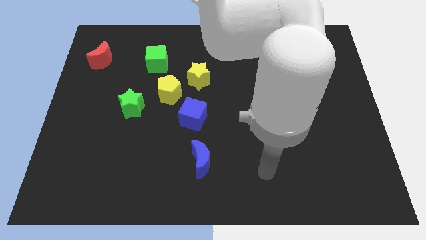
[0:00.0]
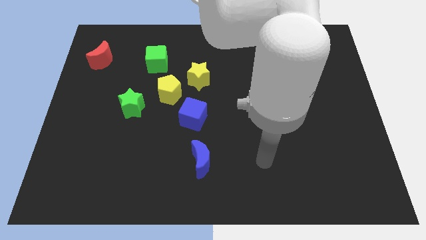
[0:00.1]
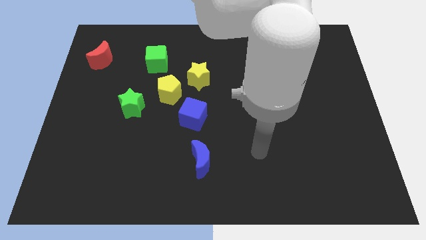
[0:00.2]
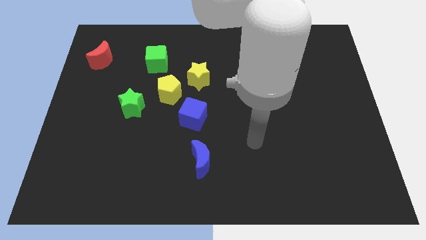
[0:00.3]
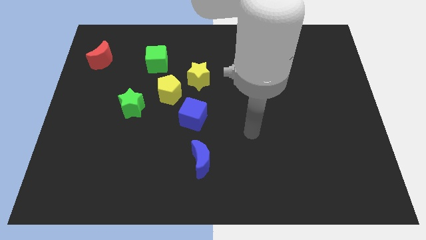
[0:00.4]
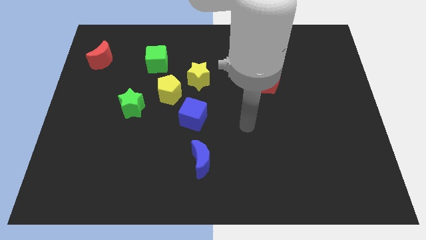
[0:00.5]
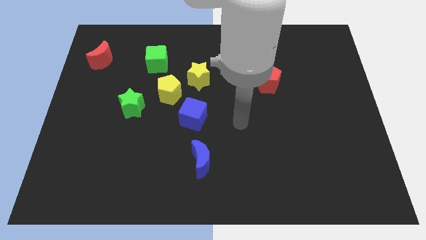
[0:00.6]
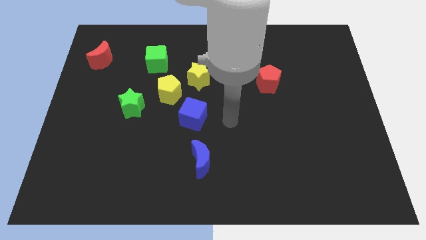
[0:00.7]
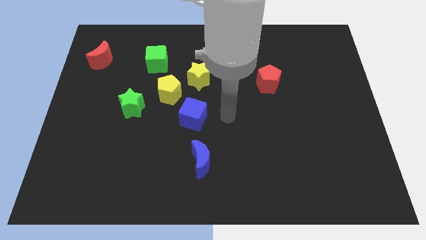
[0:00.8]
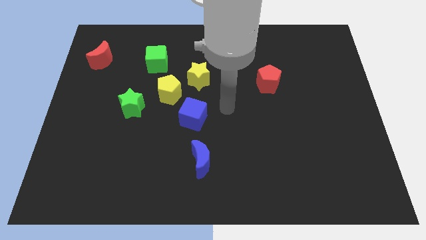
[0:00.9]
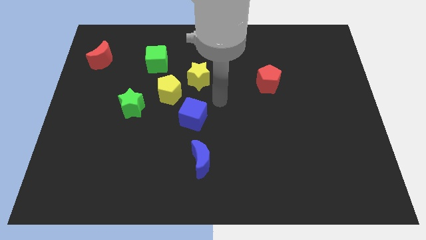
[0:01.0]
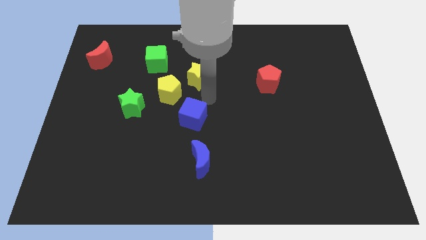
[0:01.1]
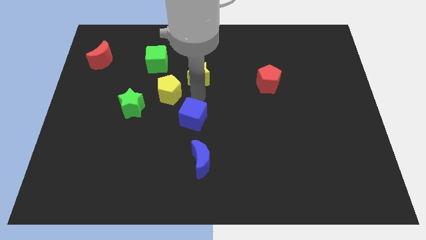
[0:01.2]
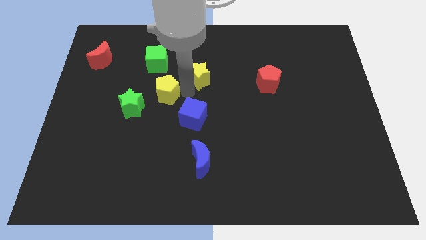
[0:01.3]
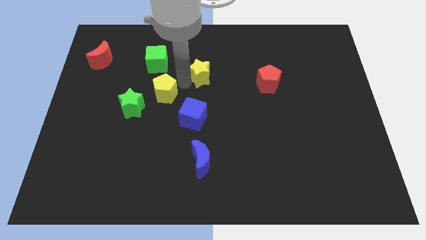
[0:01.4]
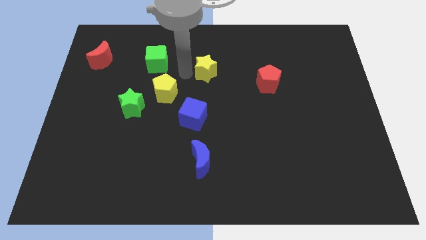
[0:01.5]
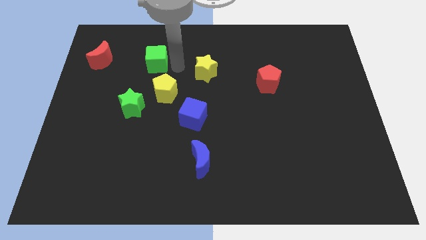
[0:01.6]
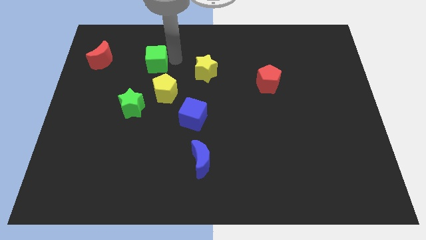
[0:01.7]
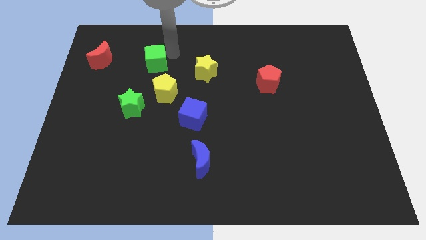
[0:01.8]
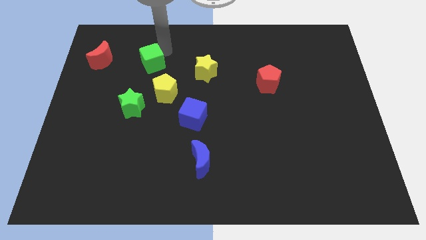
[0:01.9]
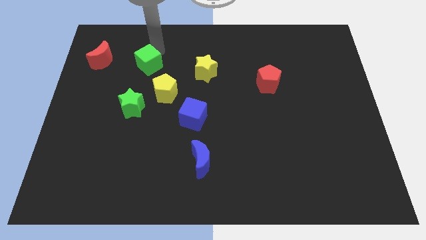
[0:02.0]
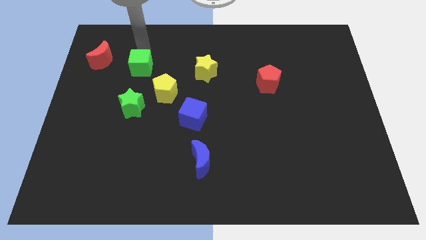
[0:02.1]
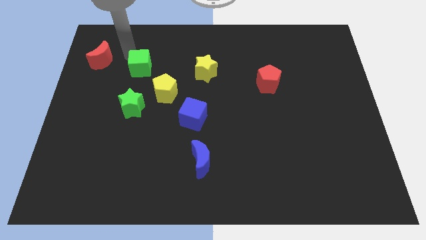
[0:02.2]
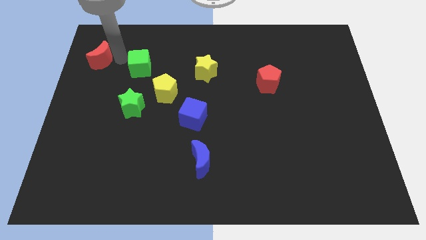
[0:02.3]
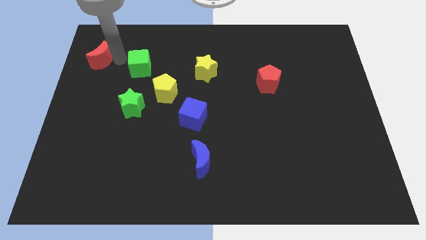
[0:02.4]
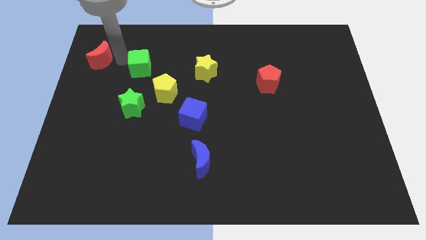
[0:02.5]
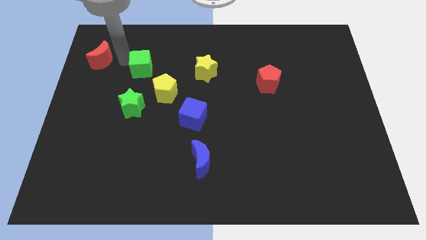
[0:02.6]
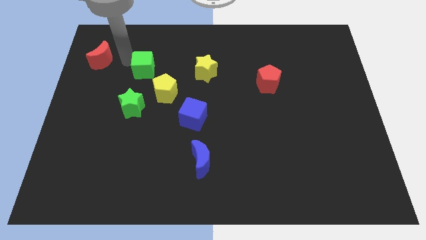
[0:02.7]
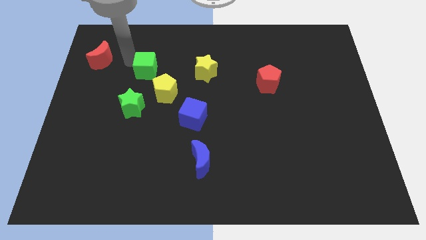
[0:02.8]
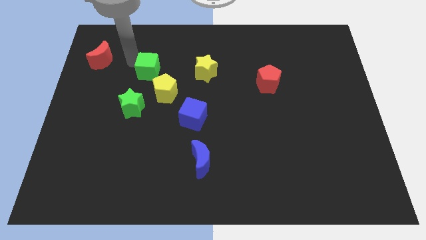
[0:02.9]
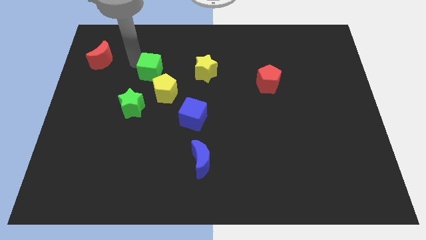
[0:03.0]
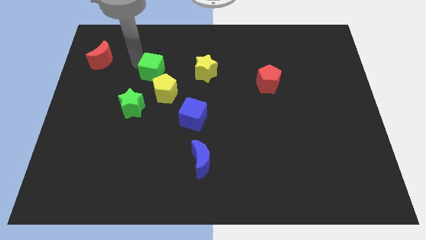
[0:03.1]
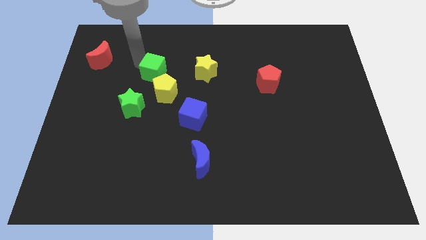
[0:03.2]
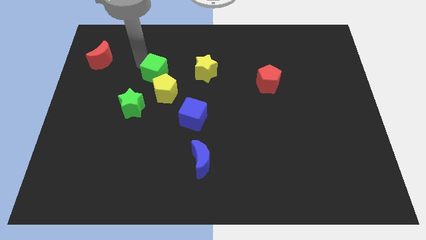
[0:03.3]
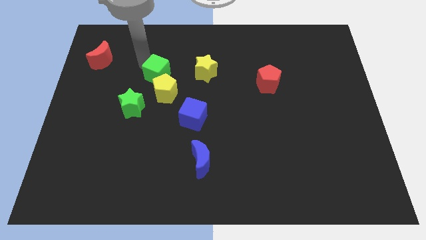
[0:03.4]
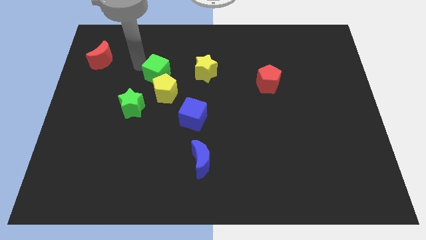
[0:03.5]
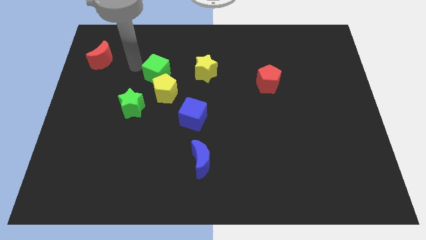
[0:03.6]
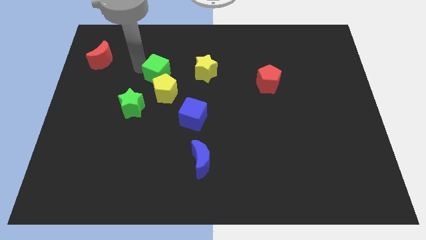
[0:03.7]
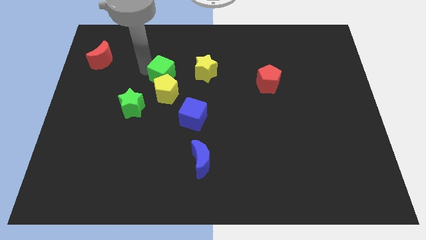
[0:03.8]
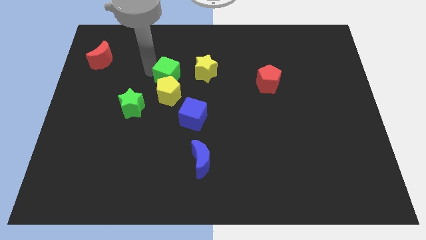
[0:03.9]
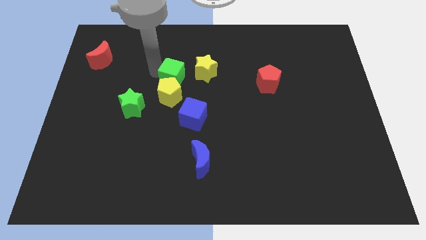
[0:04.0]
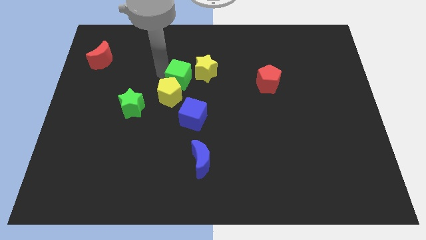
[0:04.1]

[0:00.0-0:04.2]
push the green cube down and then to the right a little bit

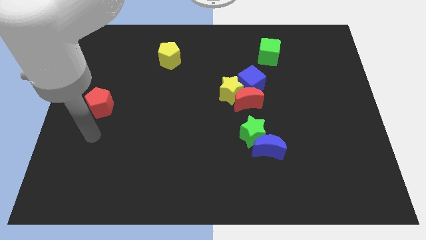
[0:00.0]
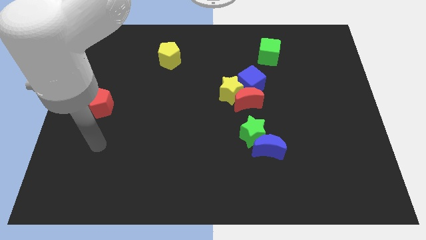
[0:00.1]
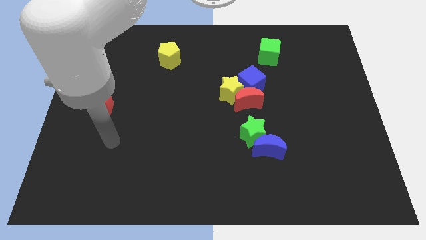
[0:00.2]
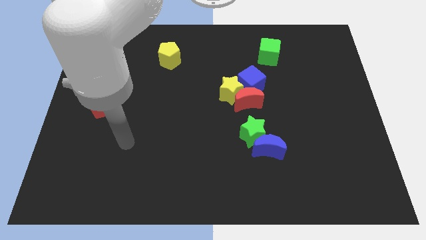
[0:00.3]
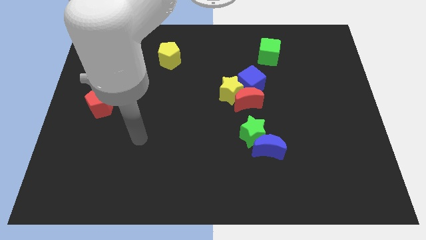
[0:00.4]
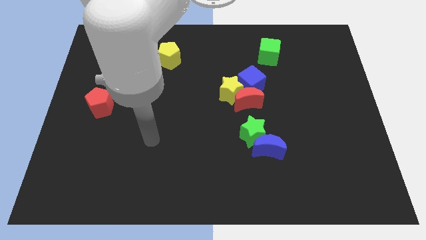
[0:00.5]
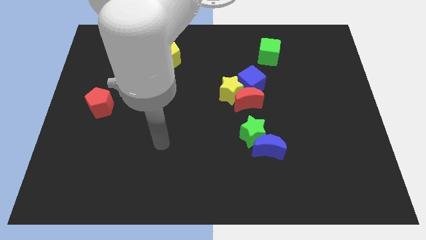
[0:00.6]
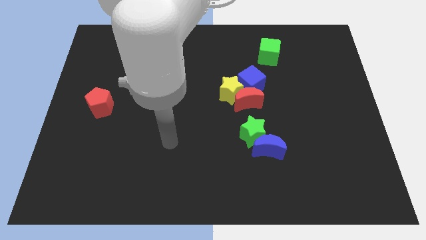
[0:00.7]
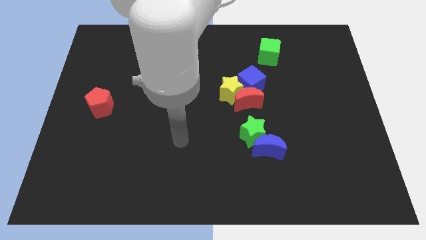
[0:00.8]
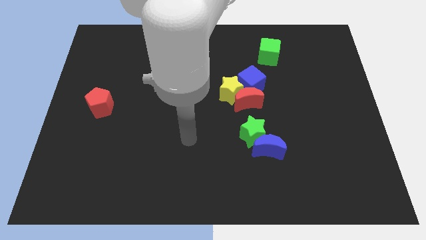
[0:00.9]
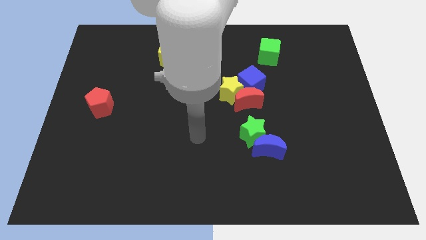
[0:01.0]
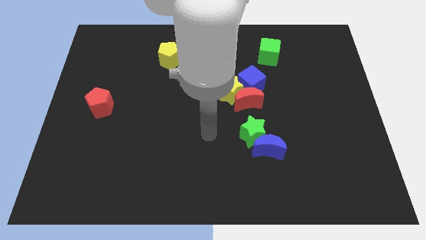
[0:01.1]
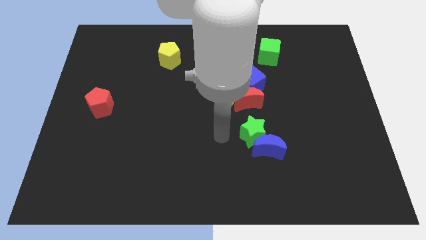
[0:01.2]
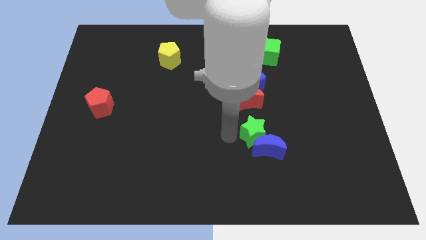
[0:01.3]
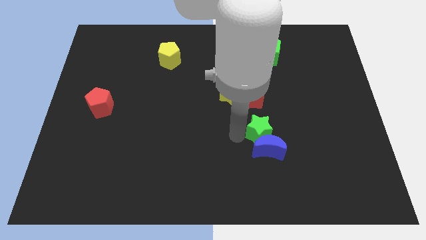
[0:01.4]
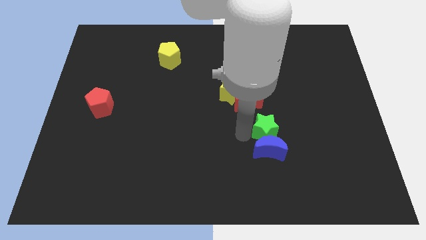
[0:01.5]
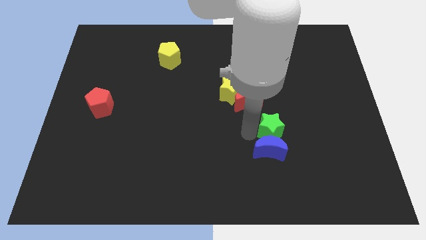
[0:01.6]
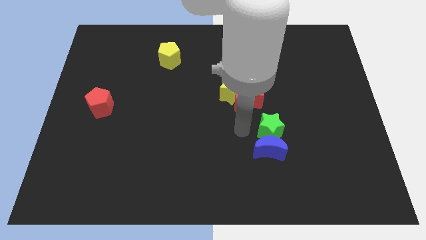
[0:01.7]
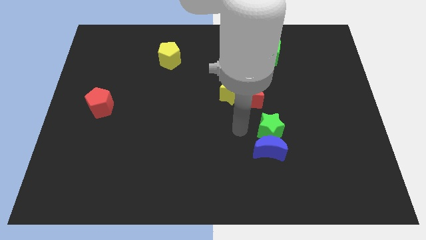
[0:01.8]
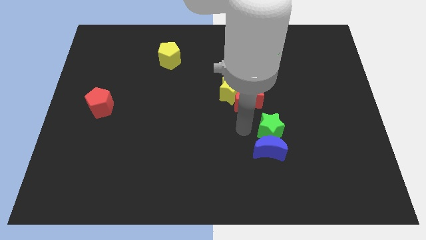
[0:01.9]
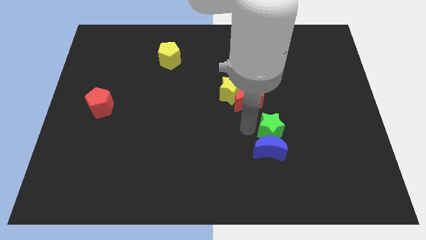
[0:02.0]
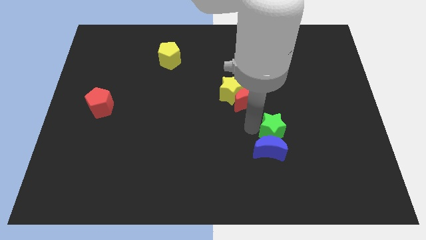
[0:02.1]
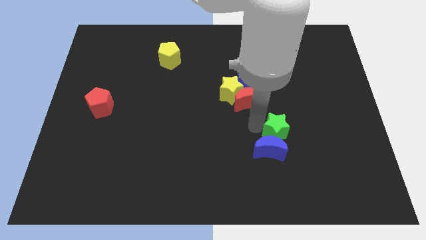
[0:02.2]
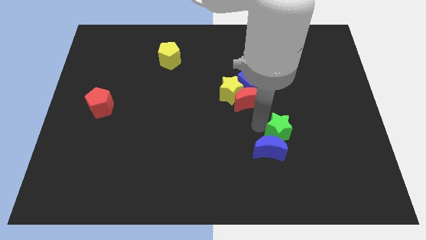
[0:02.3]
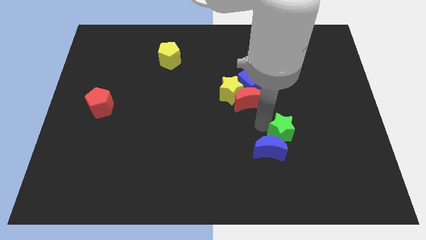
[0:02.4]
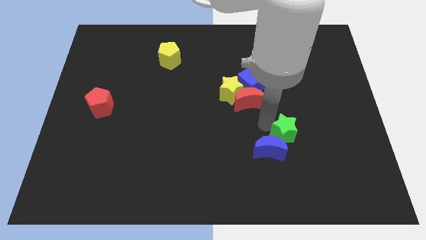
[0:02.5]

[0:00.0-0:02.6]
move the green star right a little

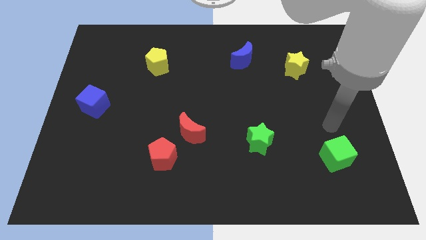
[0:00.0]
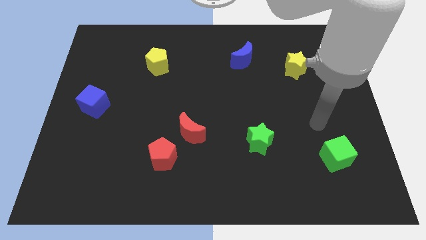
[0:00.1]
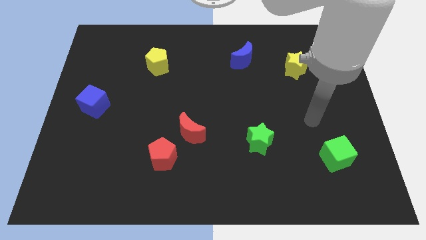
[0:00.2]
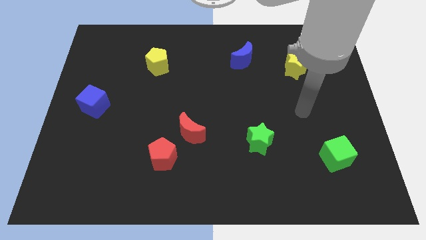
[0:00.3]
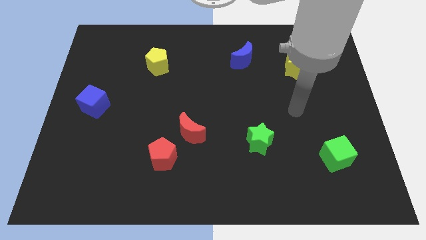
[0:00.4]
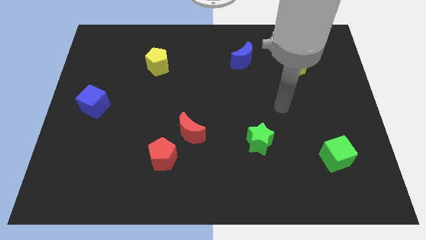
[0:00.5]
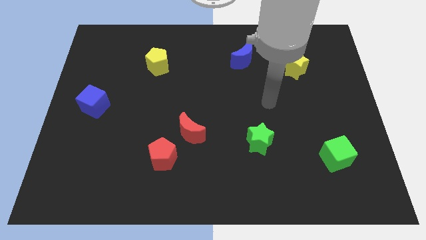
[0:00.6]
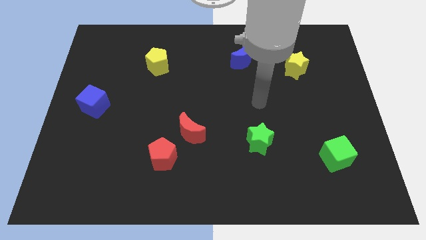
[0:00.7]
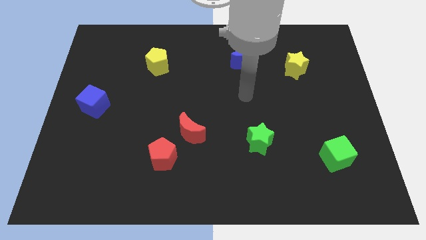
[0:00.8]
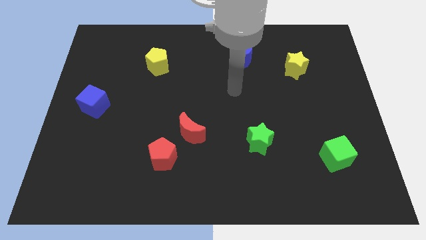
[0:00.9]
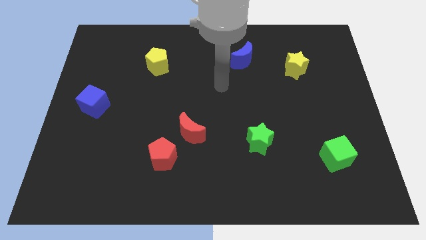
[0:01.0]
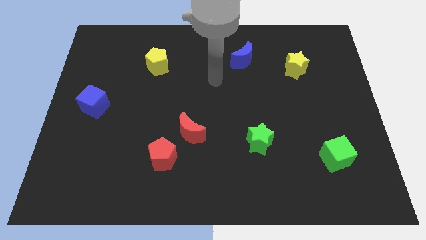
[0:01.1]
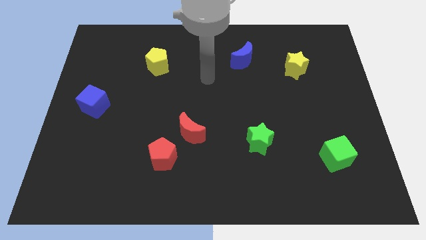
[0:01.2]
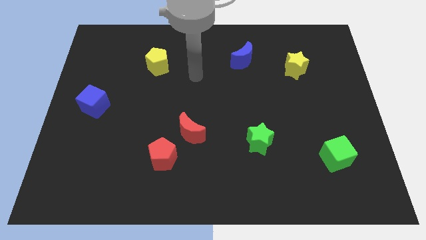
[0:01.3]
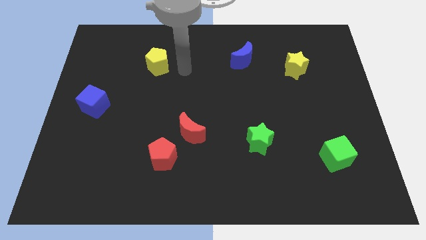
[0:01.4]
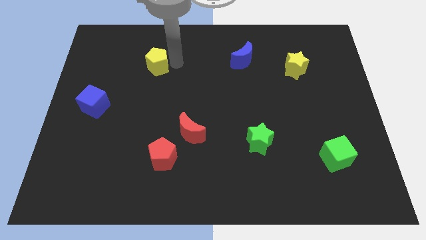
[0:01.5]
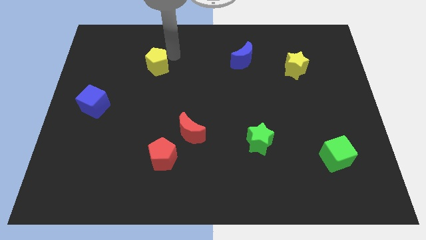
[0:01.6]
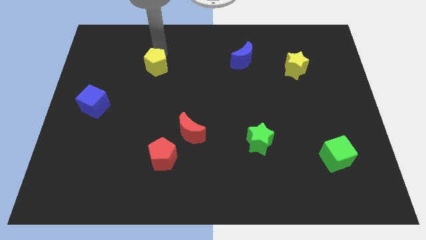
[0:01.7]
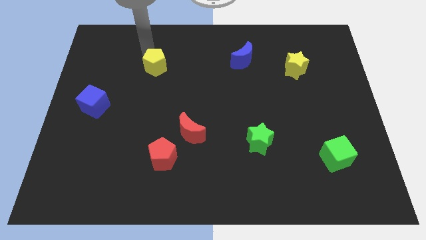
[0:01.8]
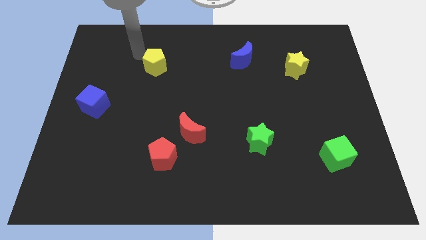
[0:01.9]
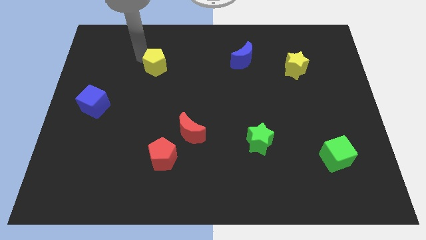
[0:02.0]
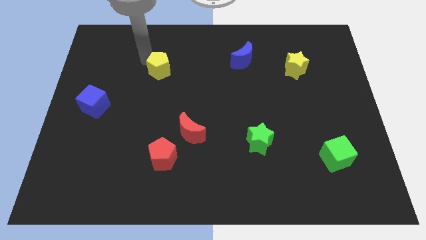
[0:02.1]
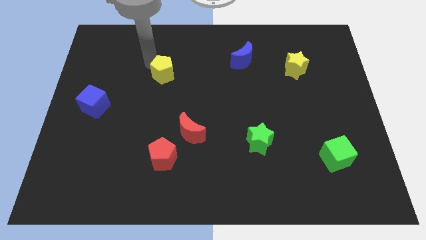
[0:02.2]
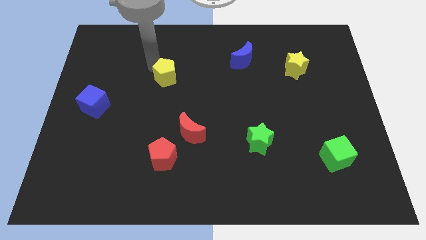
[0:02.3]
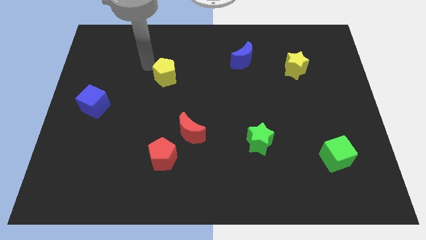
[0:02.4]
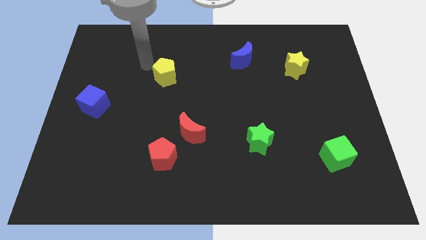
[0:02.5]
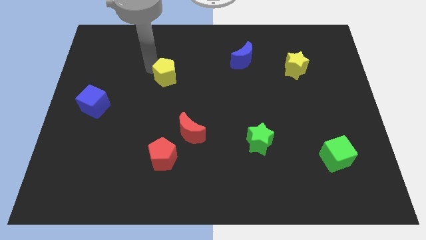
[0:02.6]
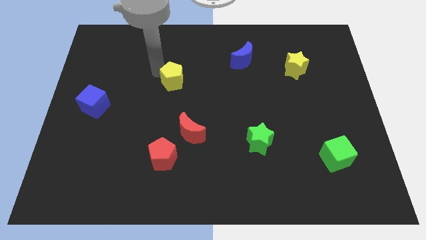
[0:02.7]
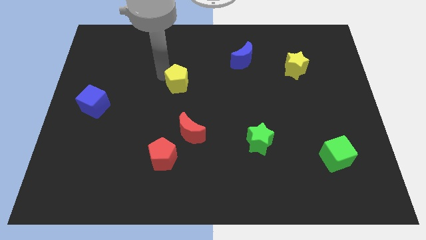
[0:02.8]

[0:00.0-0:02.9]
move the yellow pentagon downwards and to the right diagonally a little
